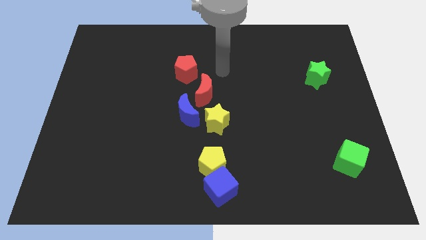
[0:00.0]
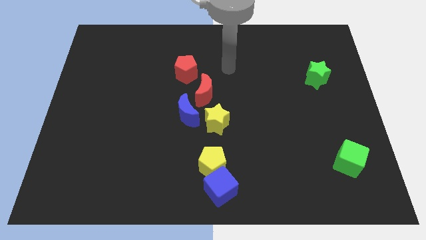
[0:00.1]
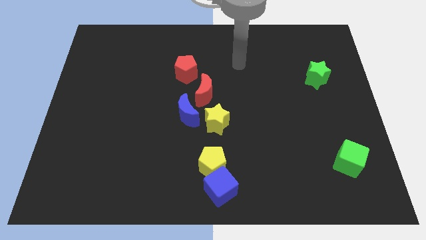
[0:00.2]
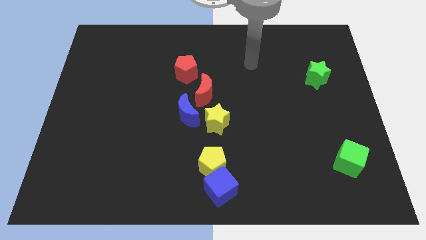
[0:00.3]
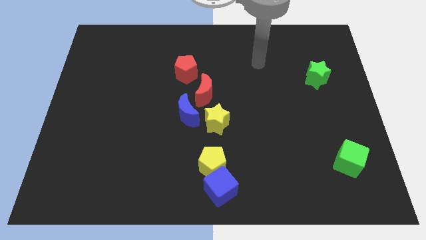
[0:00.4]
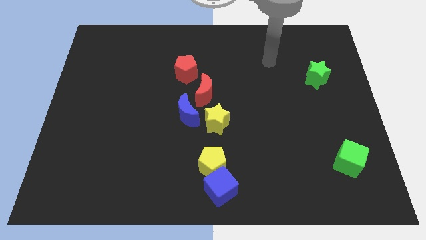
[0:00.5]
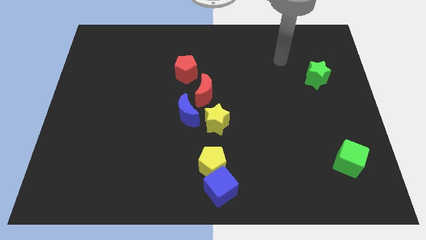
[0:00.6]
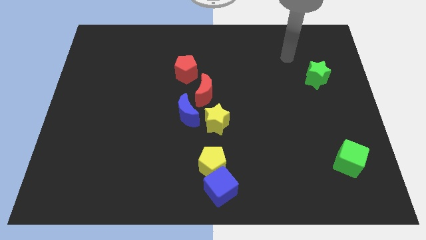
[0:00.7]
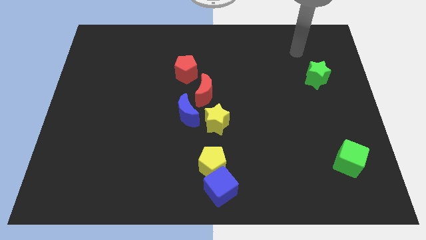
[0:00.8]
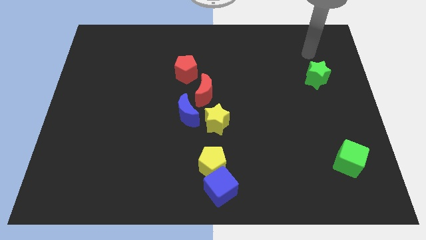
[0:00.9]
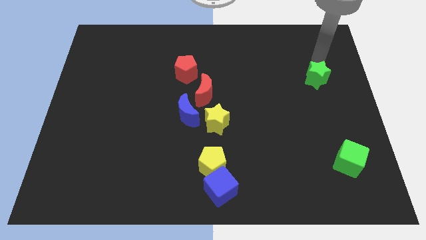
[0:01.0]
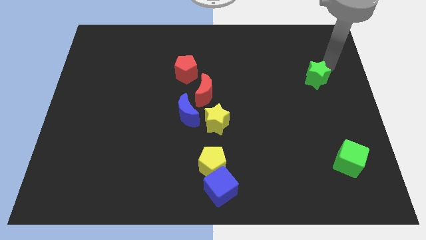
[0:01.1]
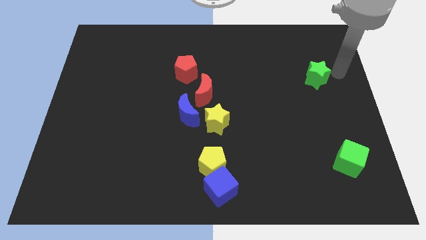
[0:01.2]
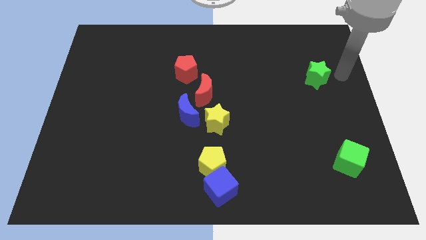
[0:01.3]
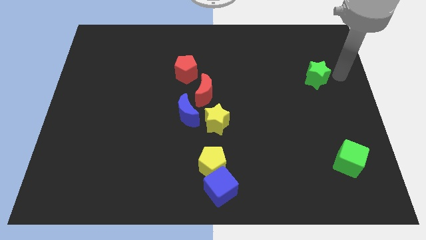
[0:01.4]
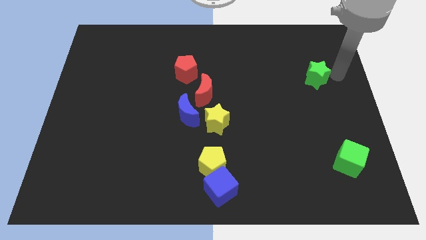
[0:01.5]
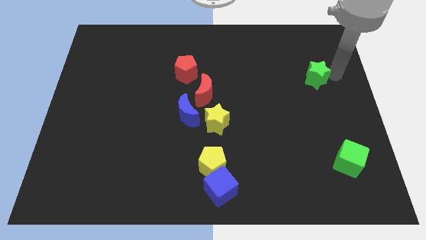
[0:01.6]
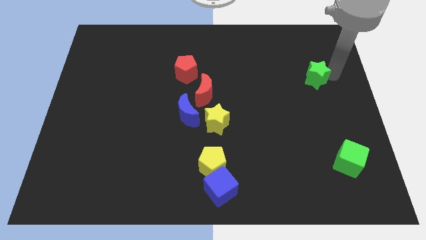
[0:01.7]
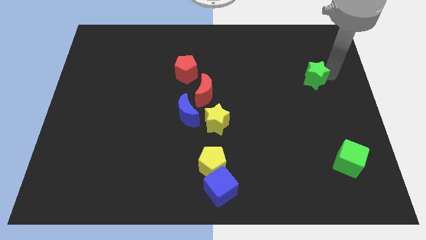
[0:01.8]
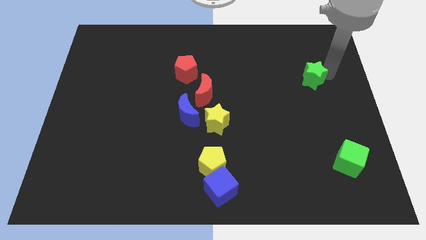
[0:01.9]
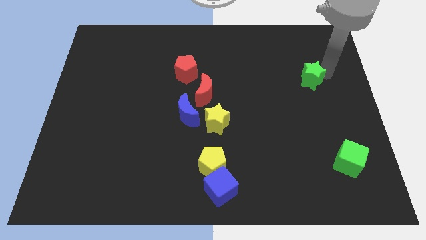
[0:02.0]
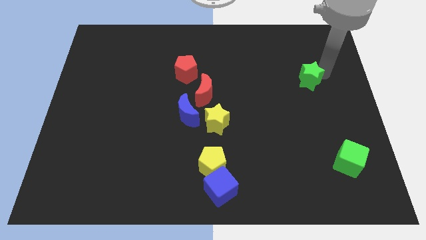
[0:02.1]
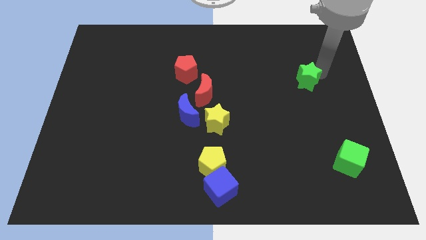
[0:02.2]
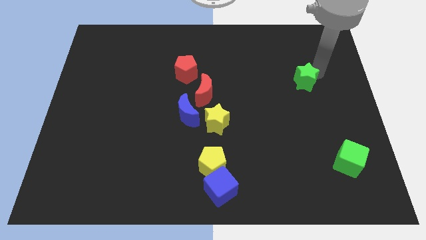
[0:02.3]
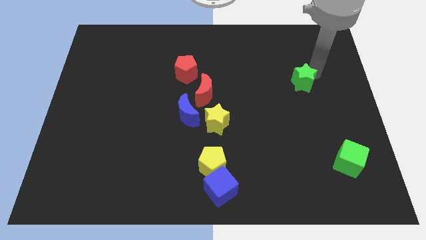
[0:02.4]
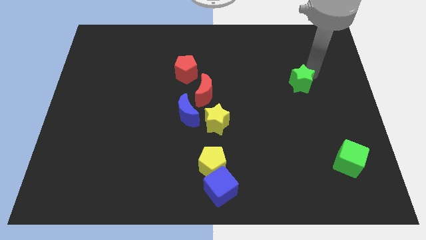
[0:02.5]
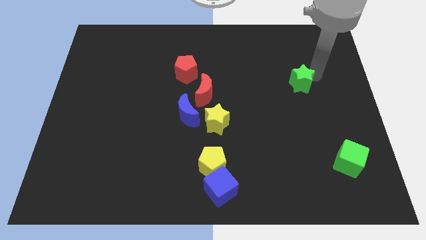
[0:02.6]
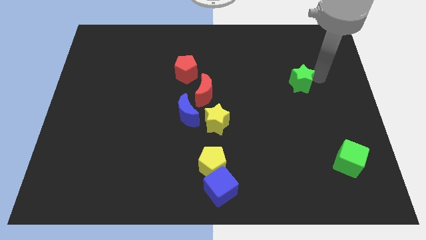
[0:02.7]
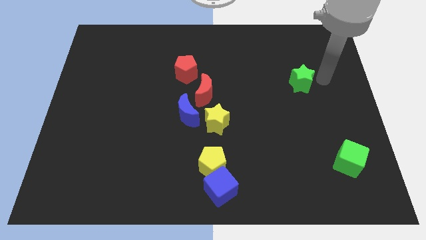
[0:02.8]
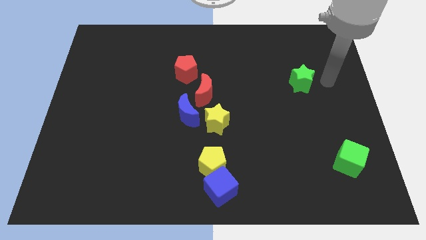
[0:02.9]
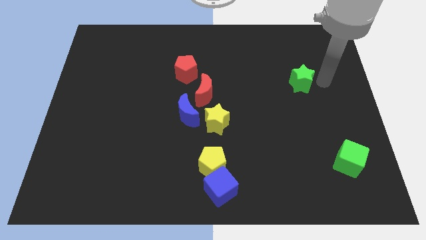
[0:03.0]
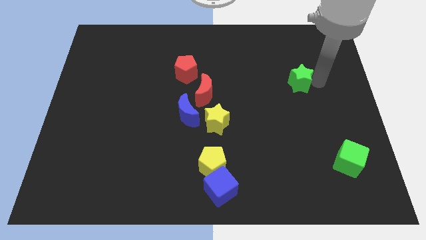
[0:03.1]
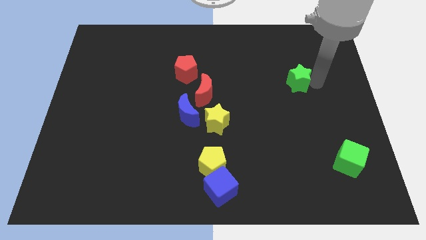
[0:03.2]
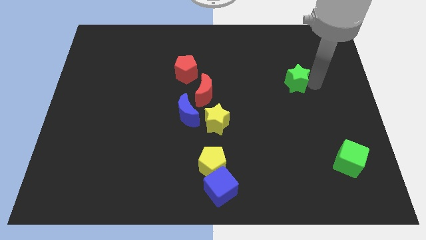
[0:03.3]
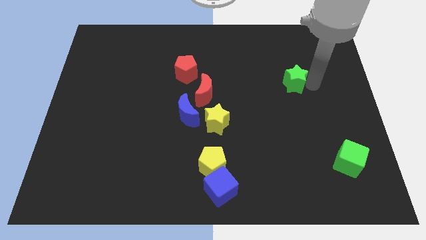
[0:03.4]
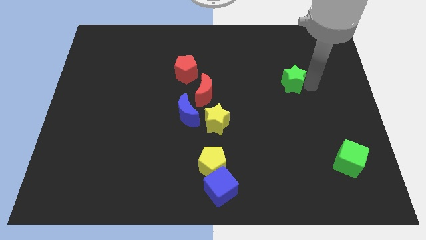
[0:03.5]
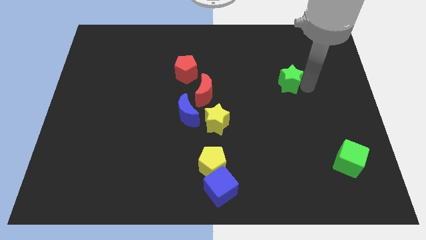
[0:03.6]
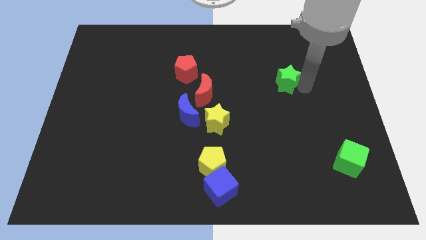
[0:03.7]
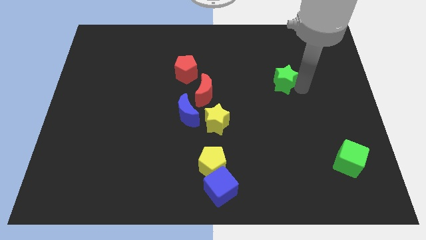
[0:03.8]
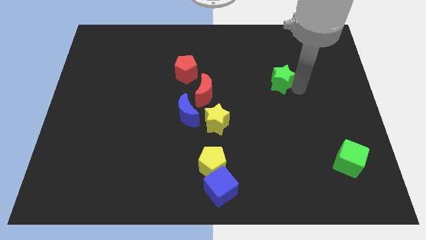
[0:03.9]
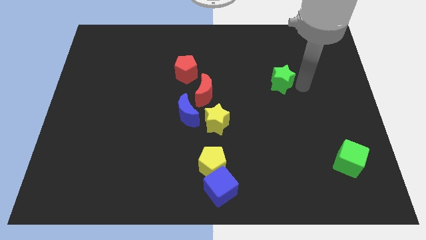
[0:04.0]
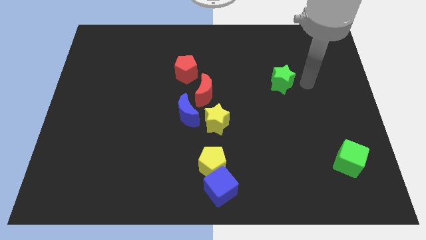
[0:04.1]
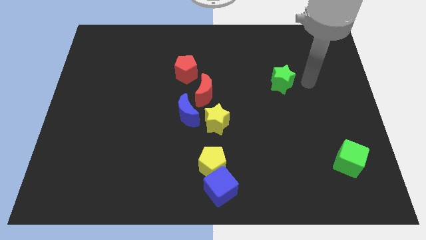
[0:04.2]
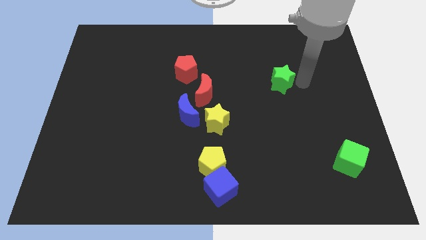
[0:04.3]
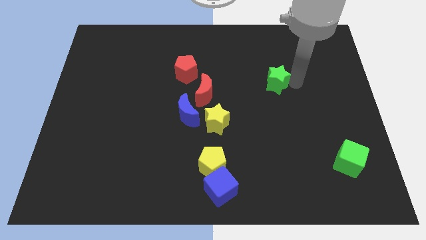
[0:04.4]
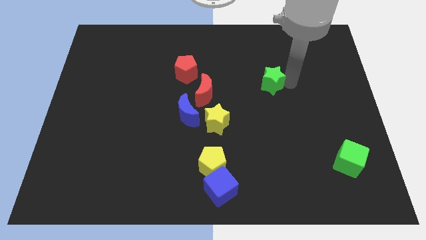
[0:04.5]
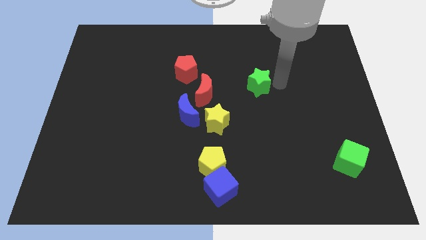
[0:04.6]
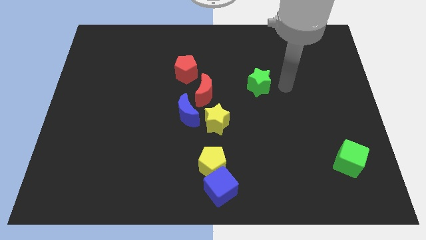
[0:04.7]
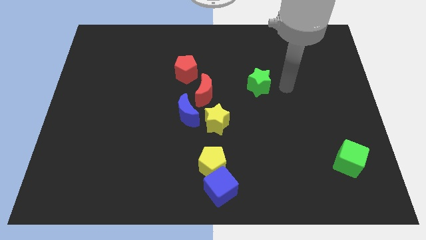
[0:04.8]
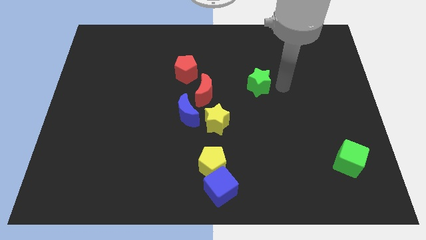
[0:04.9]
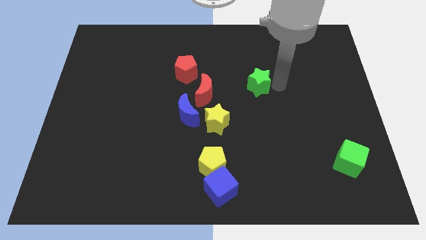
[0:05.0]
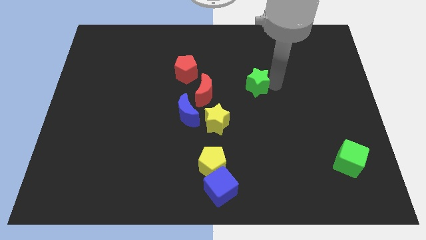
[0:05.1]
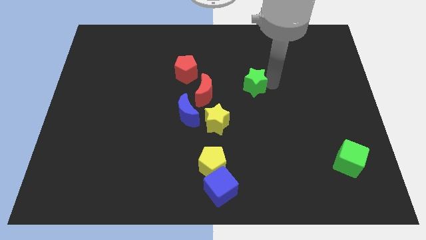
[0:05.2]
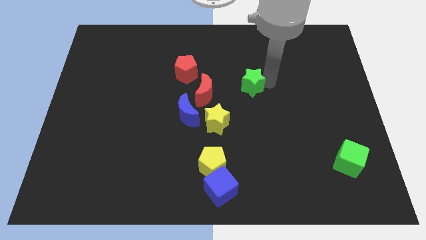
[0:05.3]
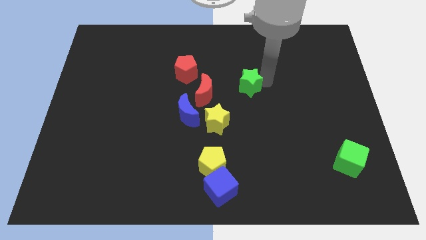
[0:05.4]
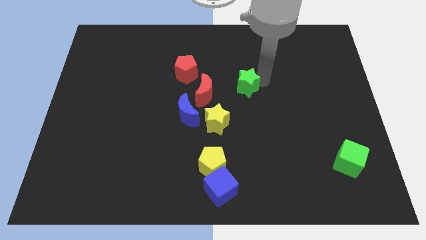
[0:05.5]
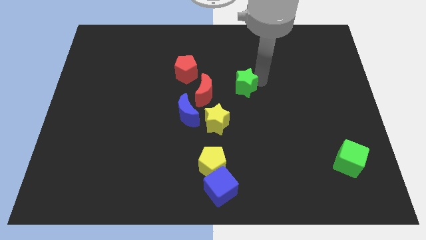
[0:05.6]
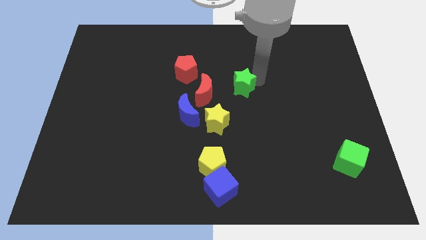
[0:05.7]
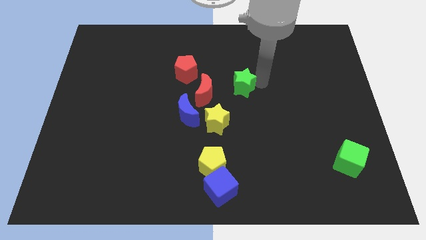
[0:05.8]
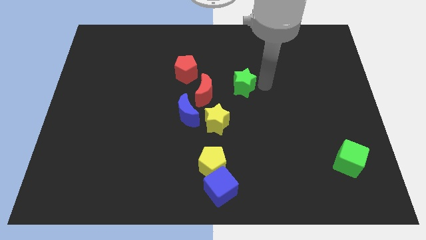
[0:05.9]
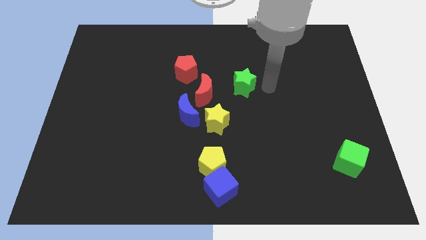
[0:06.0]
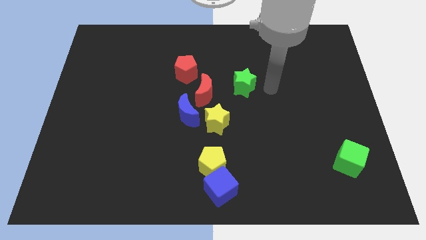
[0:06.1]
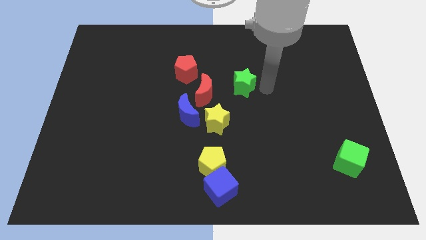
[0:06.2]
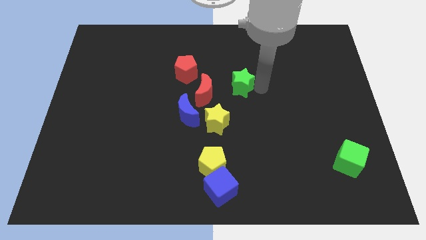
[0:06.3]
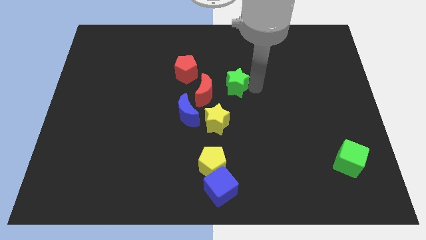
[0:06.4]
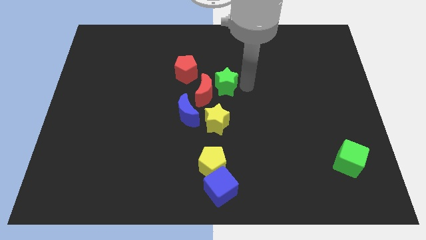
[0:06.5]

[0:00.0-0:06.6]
move the green star close to the red moon

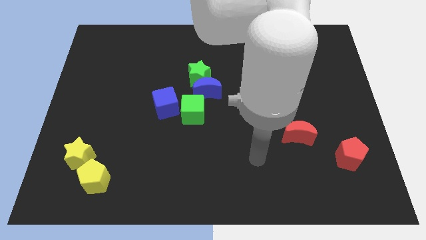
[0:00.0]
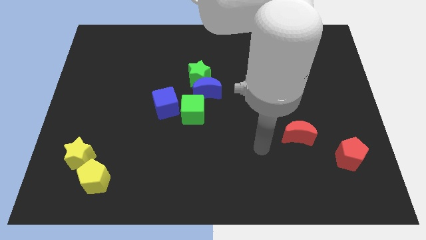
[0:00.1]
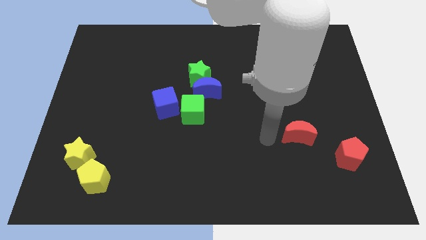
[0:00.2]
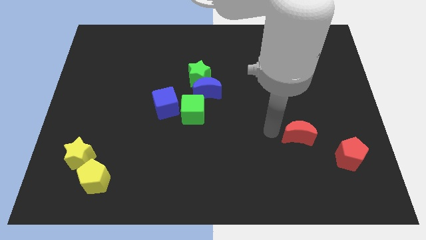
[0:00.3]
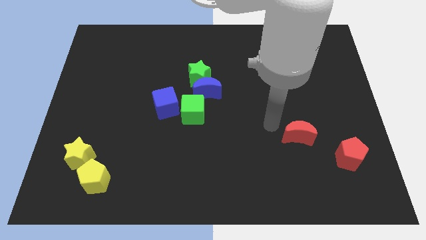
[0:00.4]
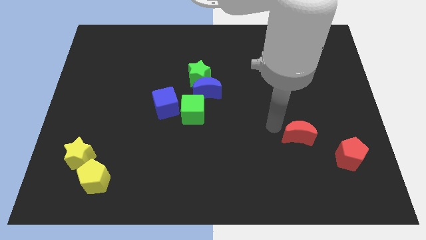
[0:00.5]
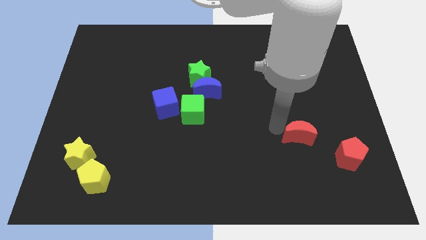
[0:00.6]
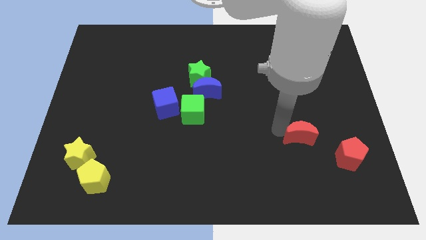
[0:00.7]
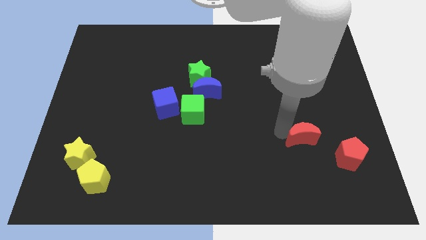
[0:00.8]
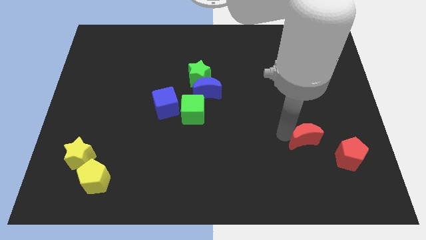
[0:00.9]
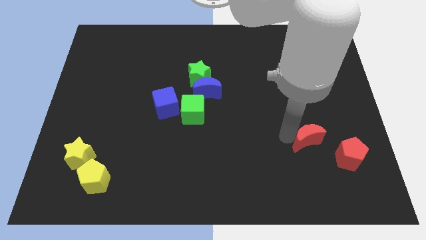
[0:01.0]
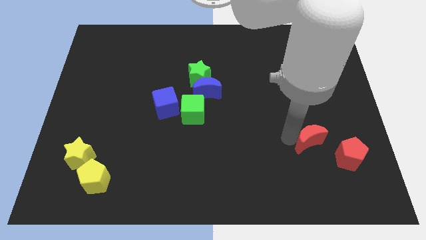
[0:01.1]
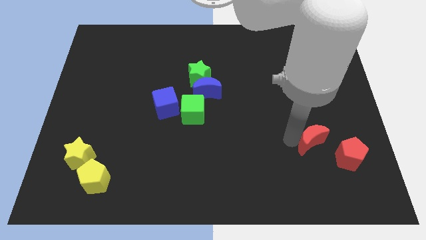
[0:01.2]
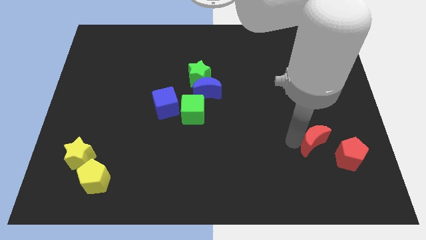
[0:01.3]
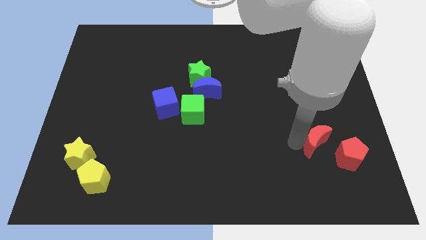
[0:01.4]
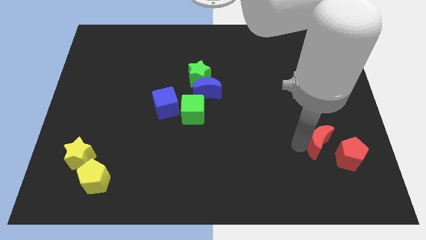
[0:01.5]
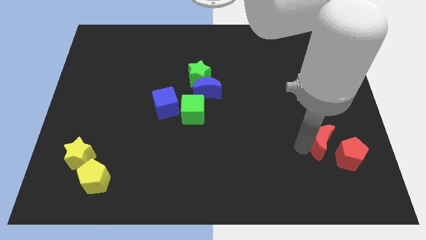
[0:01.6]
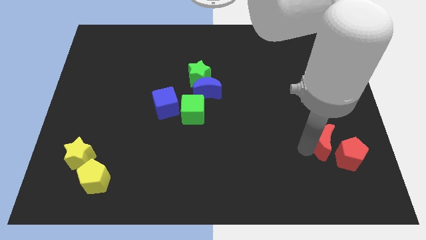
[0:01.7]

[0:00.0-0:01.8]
move the red moon towards the red pentagon
